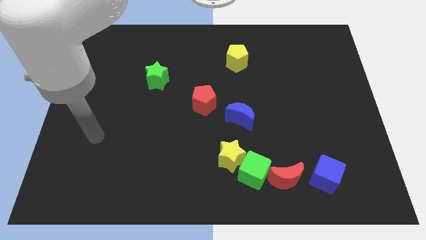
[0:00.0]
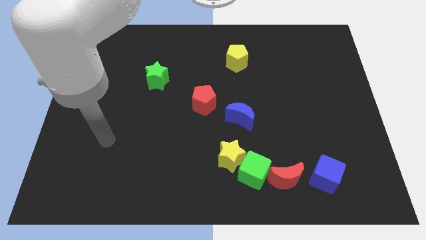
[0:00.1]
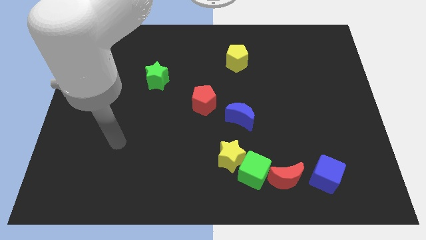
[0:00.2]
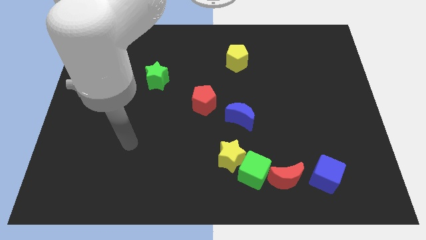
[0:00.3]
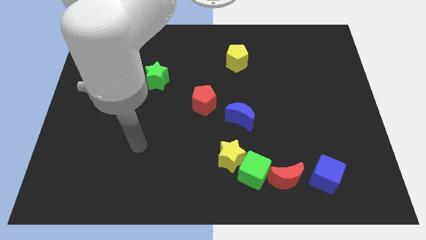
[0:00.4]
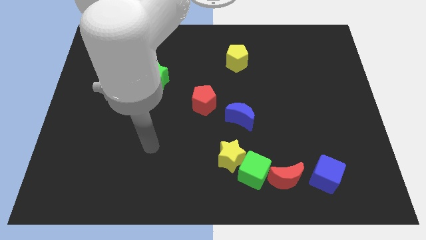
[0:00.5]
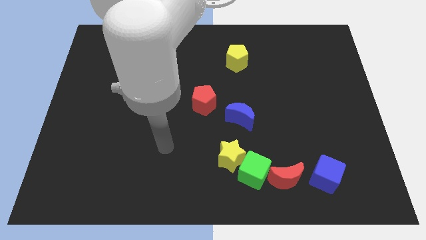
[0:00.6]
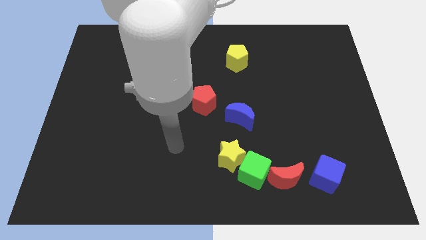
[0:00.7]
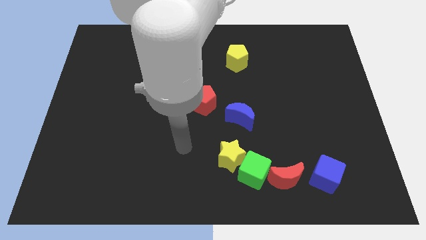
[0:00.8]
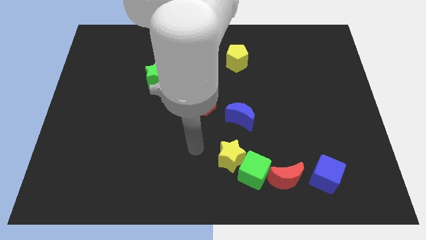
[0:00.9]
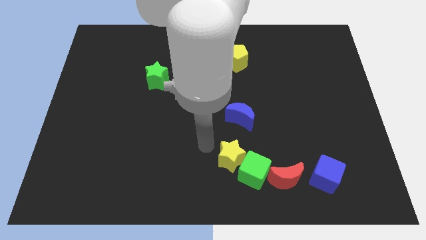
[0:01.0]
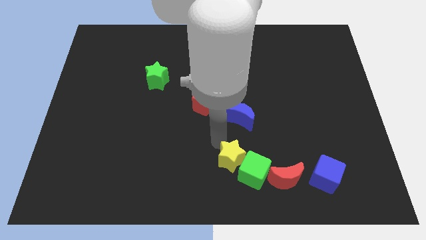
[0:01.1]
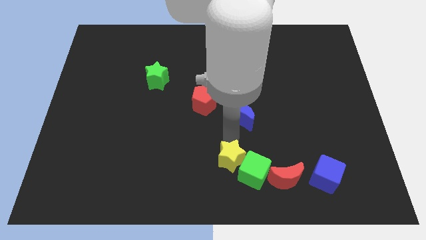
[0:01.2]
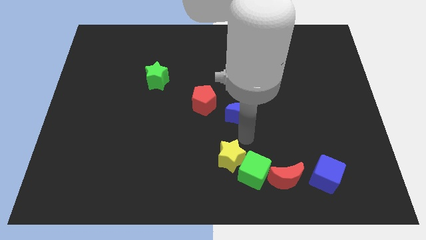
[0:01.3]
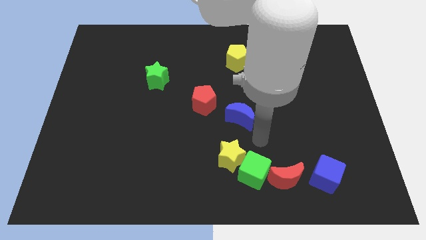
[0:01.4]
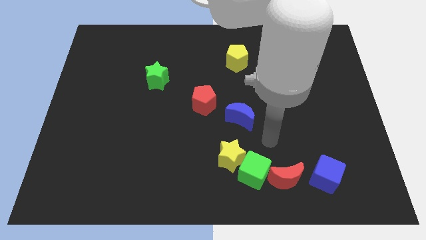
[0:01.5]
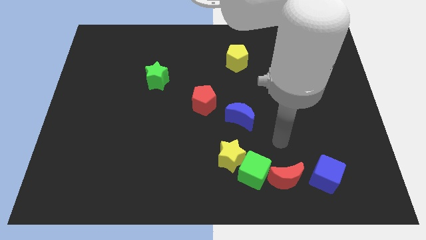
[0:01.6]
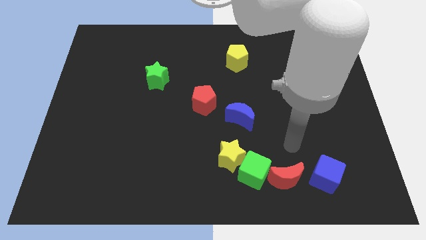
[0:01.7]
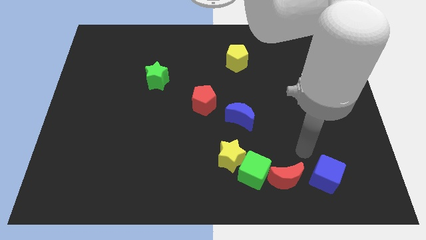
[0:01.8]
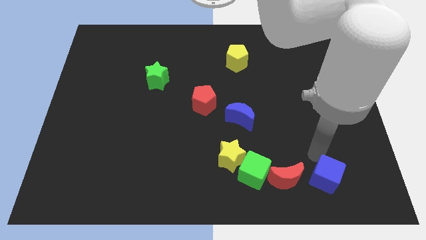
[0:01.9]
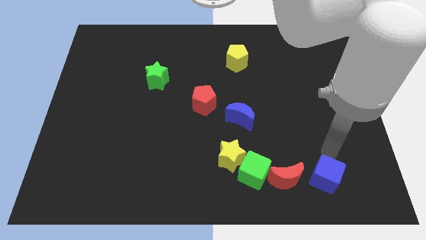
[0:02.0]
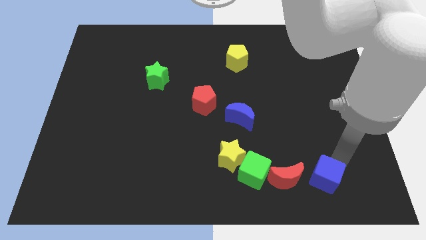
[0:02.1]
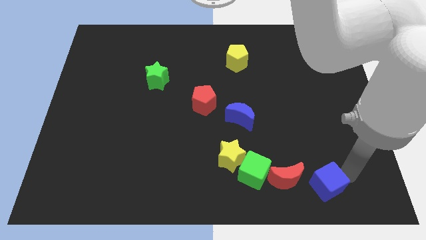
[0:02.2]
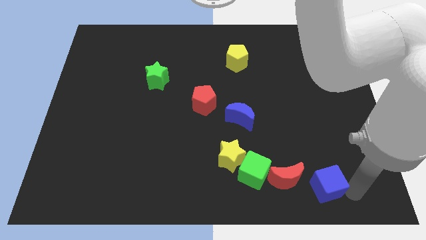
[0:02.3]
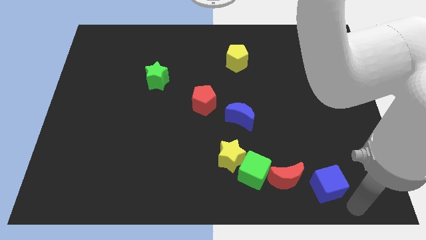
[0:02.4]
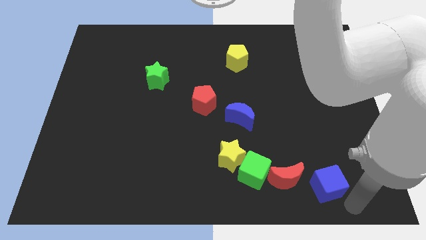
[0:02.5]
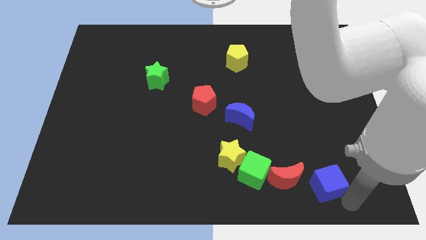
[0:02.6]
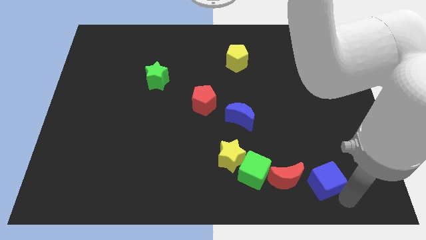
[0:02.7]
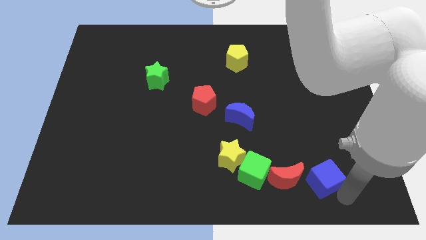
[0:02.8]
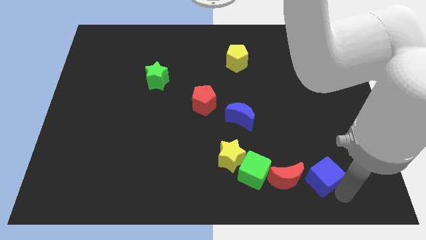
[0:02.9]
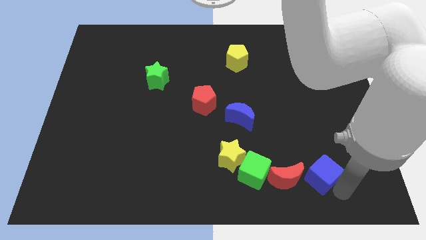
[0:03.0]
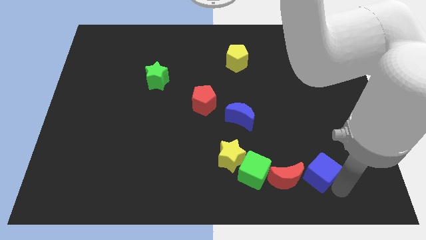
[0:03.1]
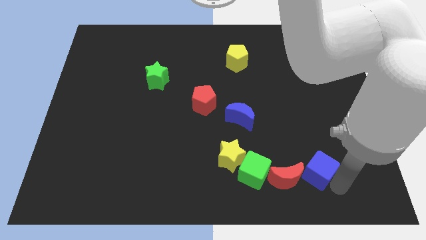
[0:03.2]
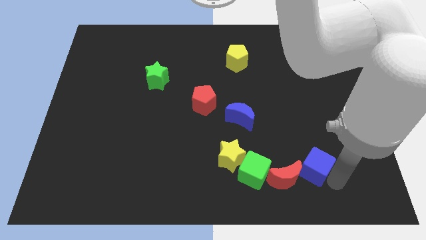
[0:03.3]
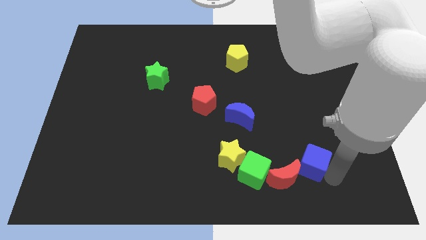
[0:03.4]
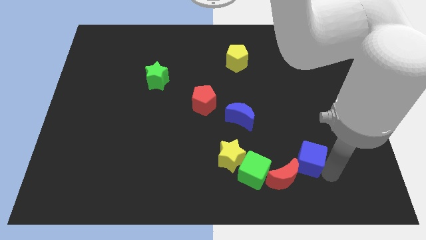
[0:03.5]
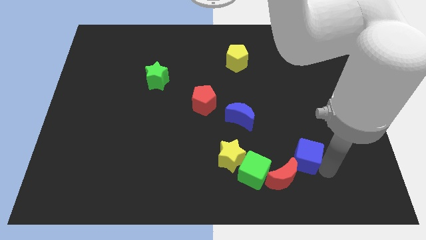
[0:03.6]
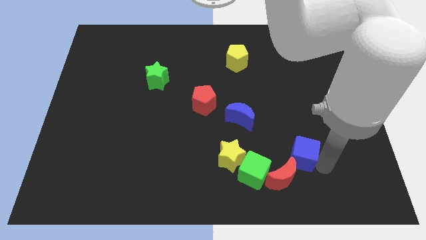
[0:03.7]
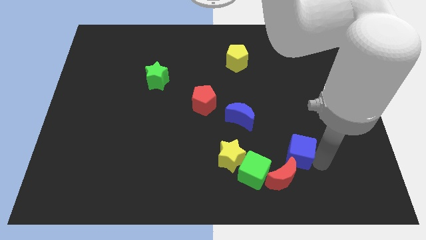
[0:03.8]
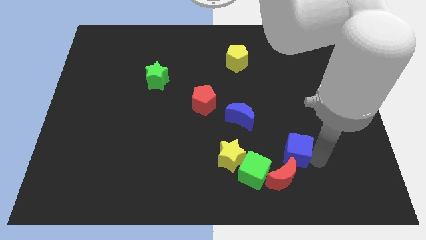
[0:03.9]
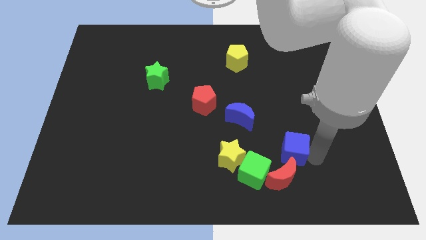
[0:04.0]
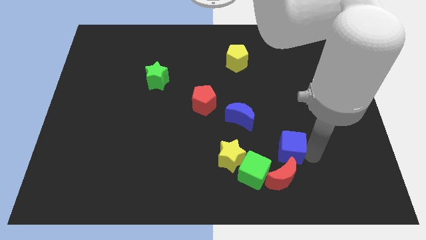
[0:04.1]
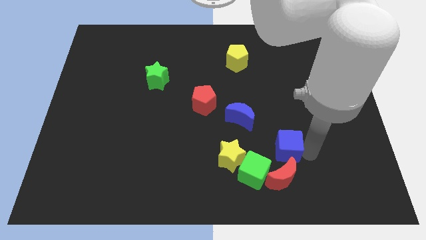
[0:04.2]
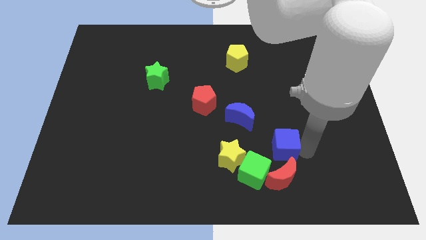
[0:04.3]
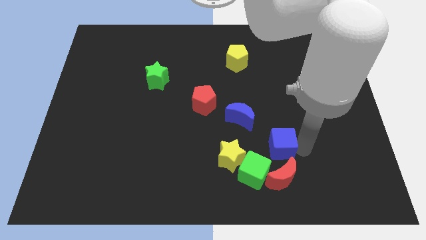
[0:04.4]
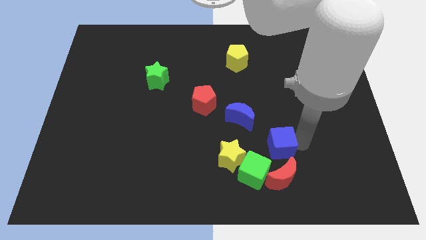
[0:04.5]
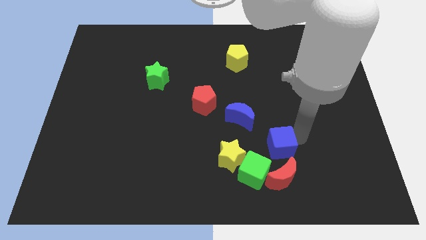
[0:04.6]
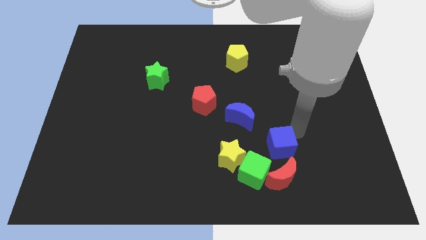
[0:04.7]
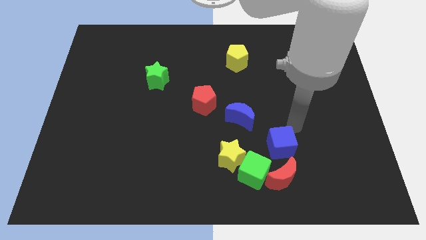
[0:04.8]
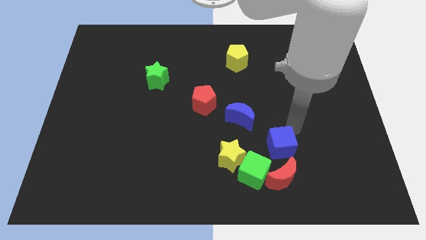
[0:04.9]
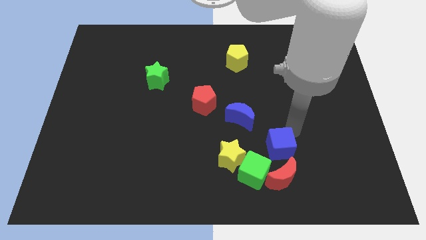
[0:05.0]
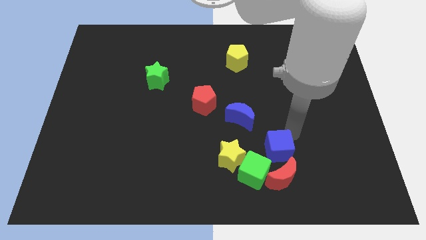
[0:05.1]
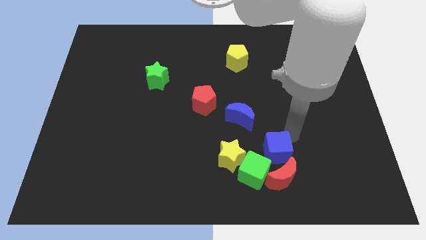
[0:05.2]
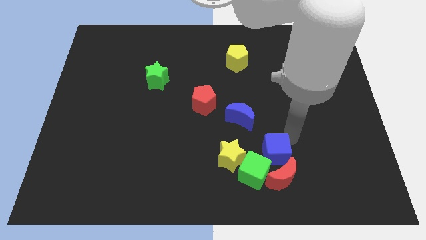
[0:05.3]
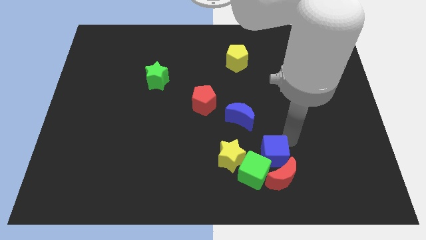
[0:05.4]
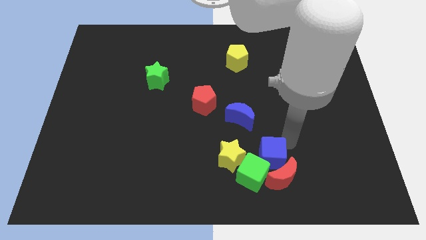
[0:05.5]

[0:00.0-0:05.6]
push the blue cube next to the green cube

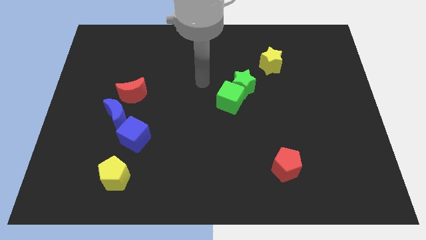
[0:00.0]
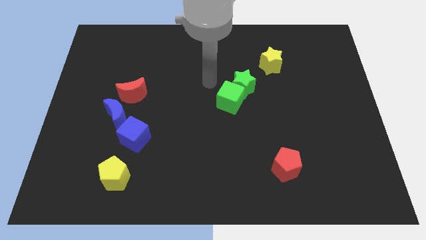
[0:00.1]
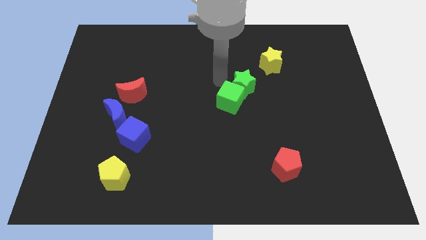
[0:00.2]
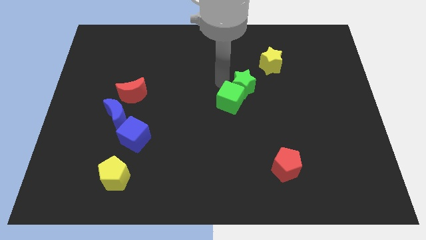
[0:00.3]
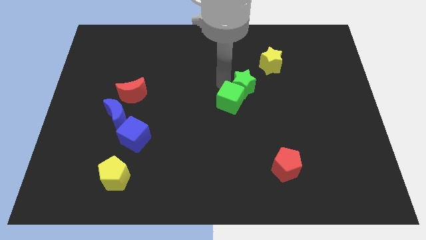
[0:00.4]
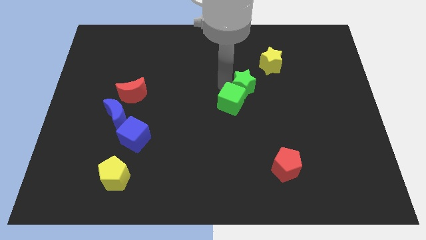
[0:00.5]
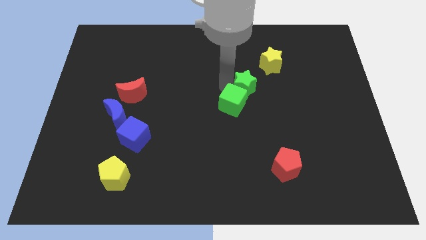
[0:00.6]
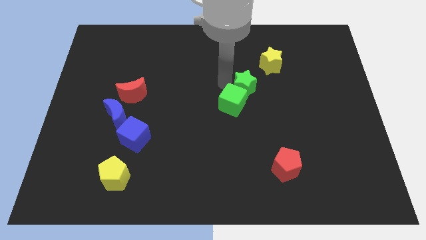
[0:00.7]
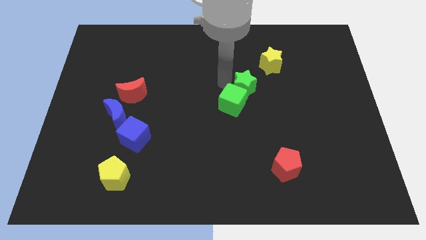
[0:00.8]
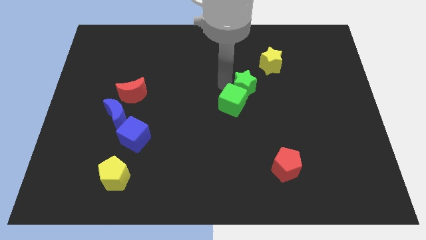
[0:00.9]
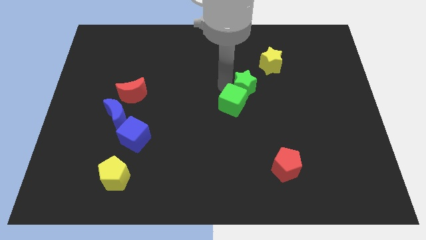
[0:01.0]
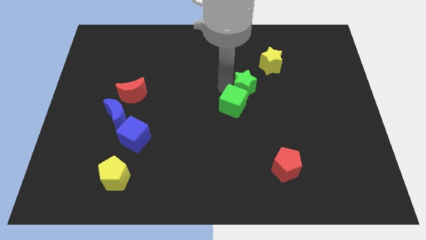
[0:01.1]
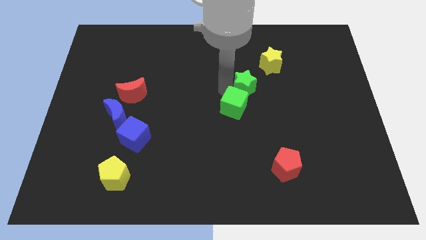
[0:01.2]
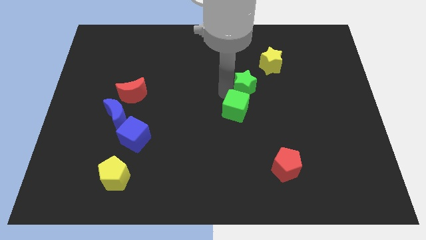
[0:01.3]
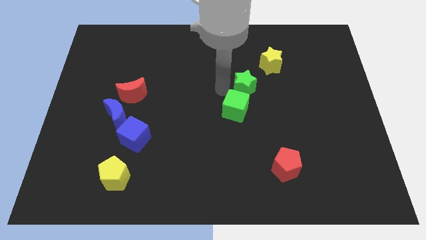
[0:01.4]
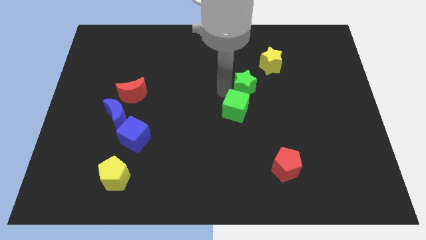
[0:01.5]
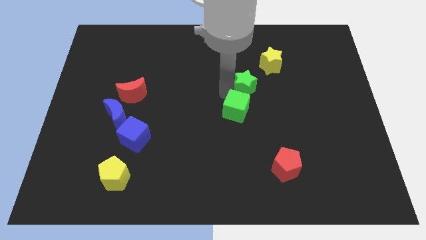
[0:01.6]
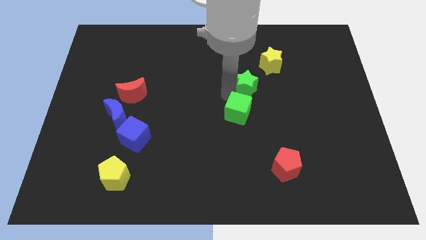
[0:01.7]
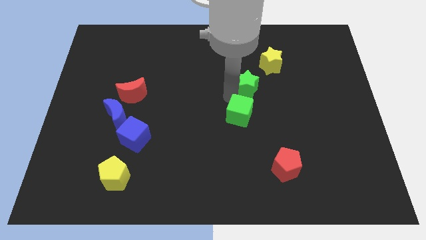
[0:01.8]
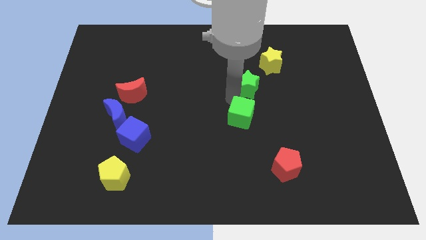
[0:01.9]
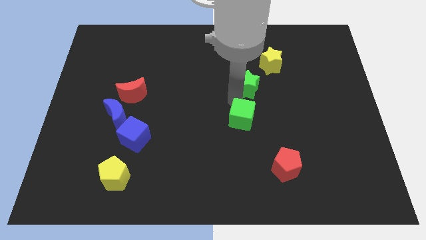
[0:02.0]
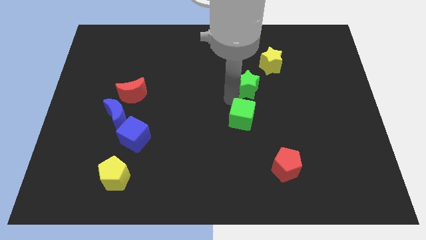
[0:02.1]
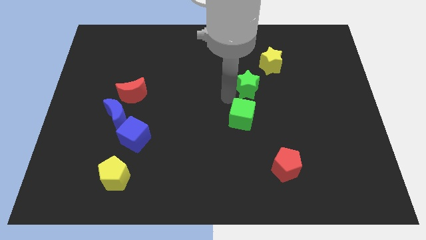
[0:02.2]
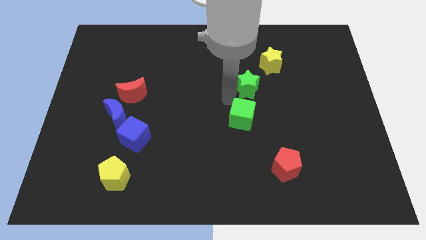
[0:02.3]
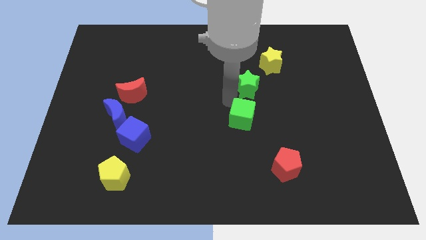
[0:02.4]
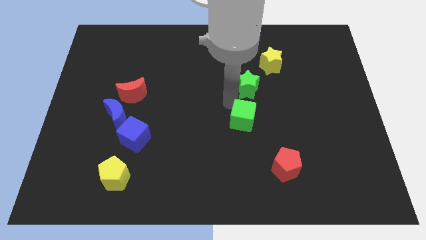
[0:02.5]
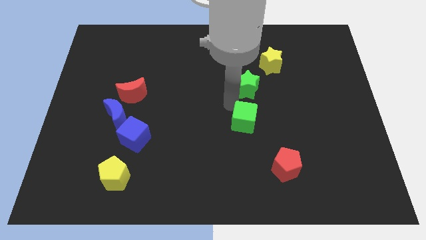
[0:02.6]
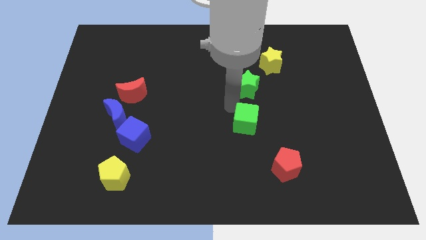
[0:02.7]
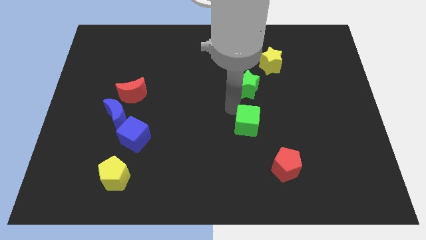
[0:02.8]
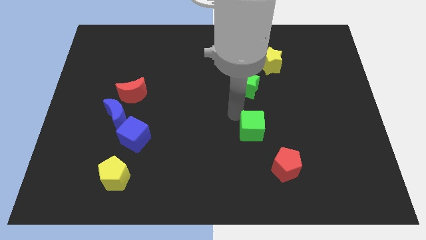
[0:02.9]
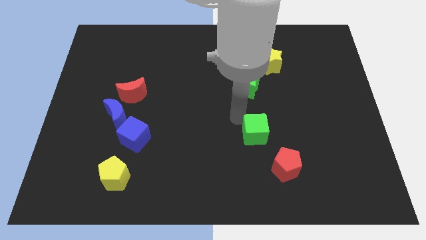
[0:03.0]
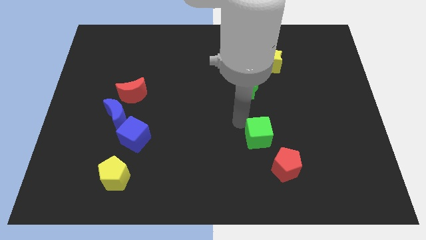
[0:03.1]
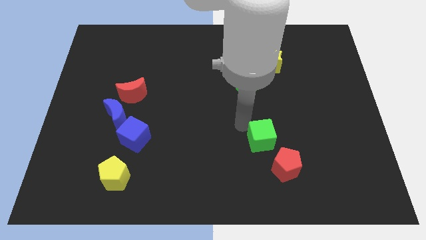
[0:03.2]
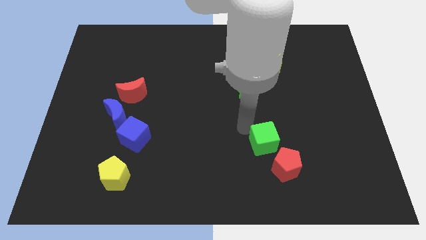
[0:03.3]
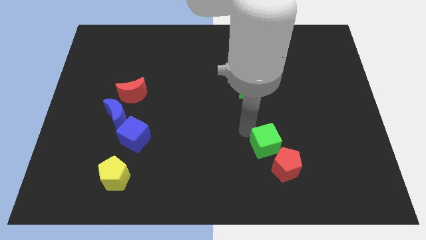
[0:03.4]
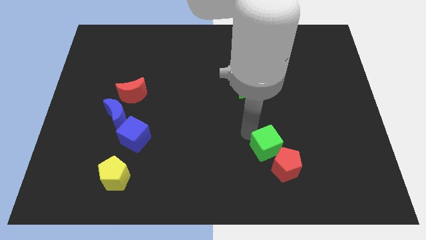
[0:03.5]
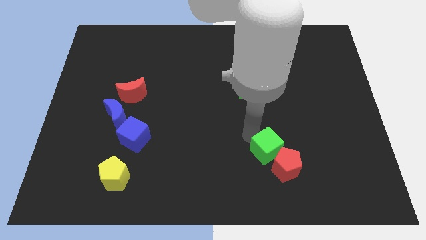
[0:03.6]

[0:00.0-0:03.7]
push the green cube close to the red pentagon
